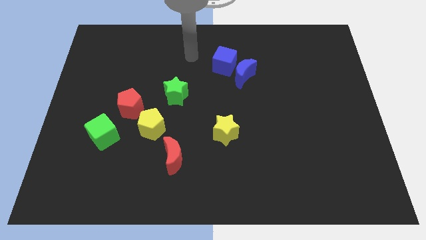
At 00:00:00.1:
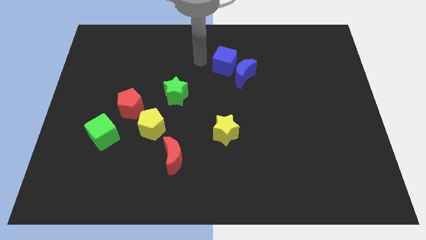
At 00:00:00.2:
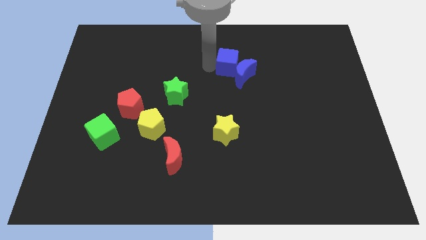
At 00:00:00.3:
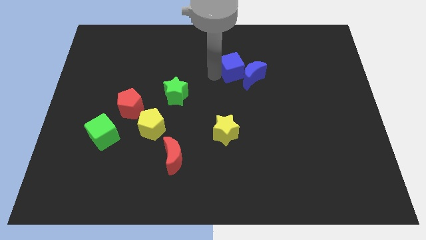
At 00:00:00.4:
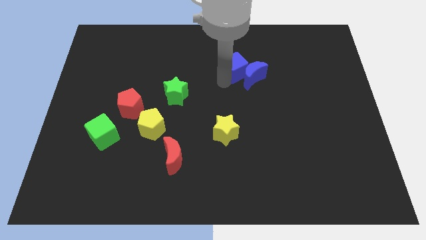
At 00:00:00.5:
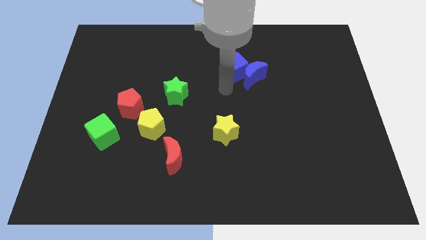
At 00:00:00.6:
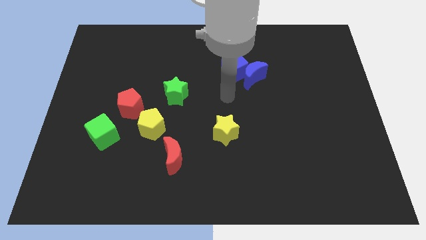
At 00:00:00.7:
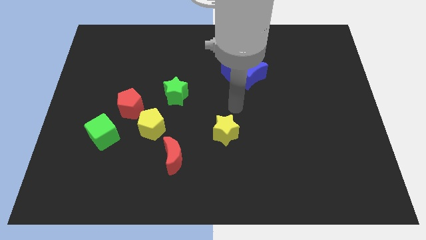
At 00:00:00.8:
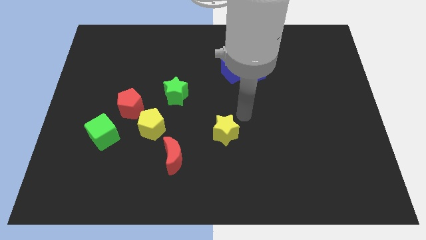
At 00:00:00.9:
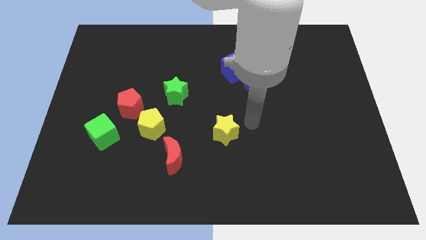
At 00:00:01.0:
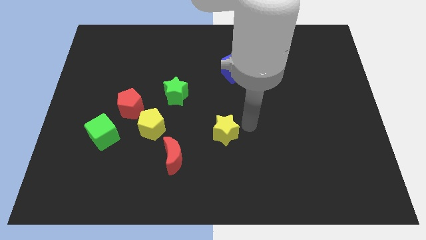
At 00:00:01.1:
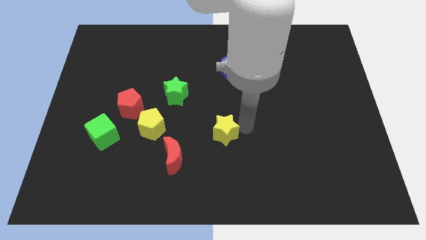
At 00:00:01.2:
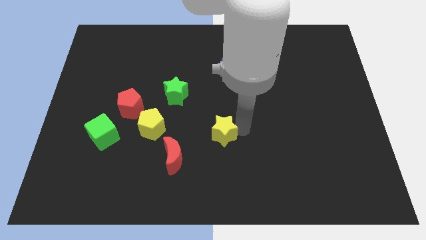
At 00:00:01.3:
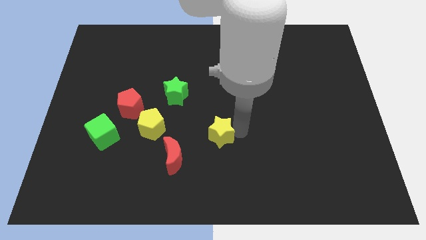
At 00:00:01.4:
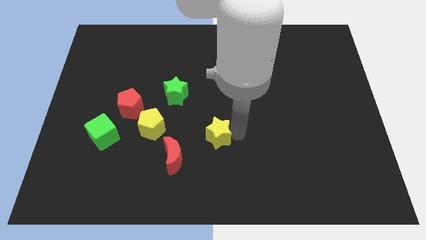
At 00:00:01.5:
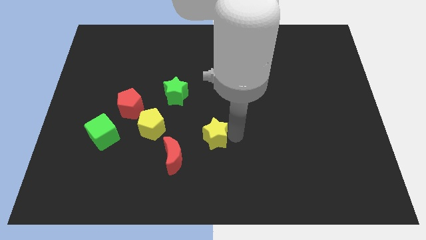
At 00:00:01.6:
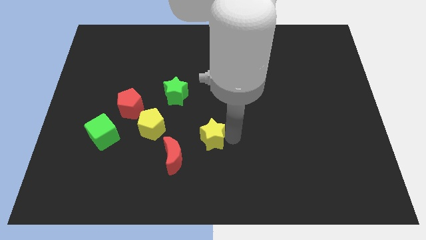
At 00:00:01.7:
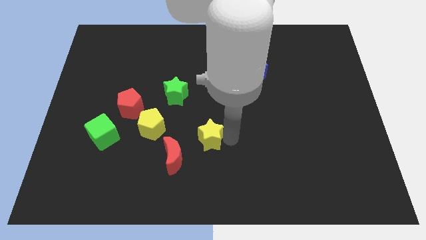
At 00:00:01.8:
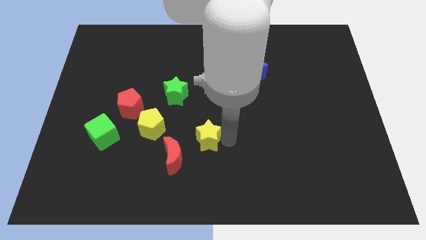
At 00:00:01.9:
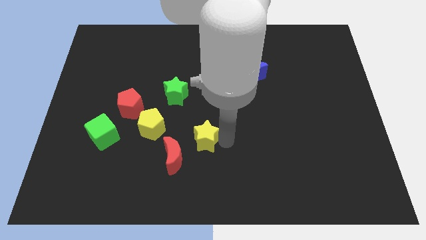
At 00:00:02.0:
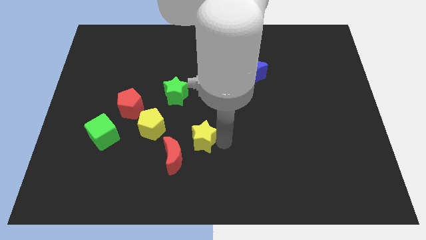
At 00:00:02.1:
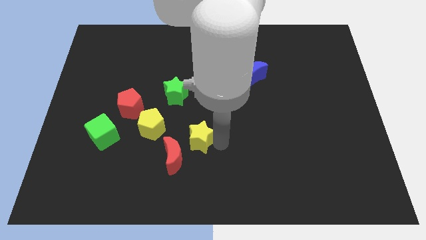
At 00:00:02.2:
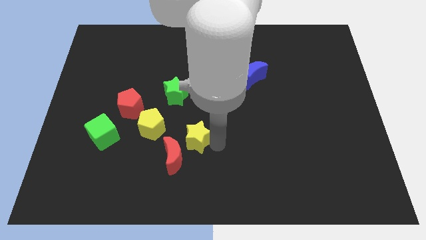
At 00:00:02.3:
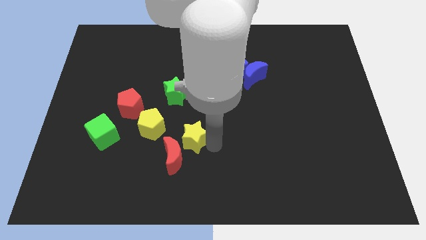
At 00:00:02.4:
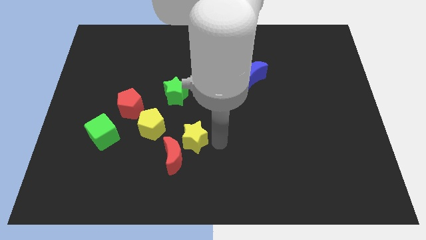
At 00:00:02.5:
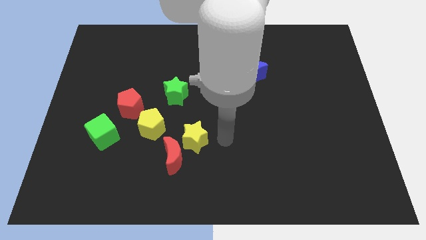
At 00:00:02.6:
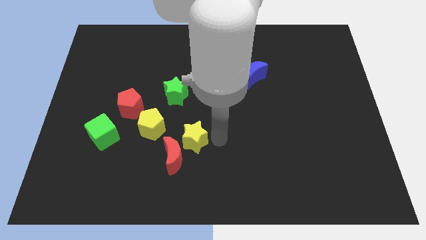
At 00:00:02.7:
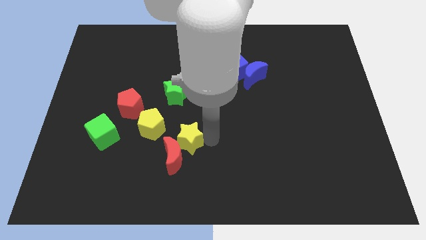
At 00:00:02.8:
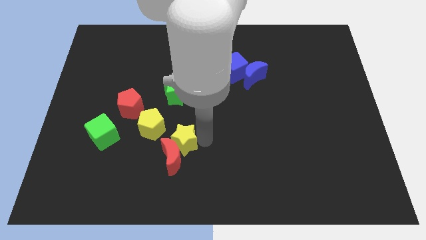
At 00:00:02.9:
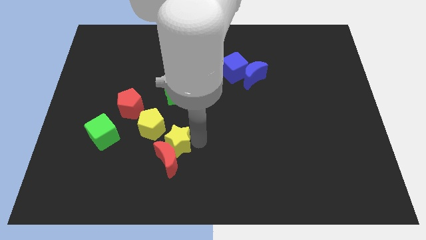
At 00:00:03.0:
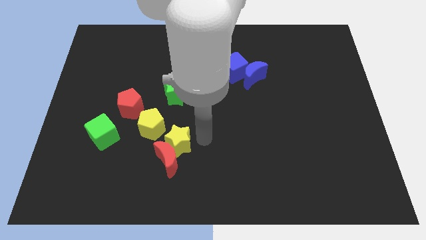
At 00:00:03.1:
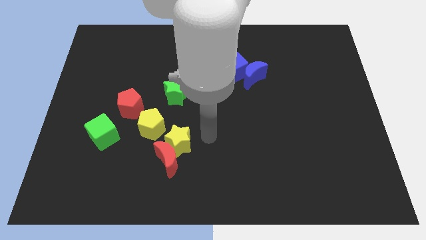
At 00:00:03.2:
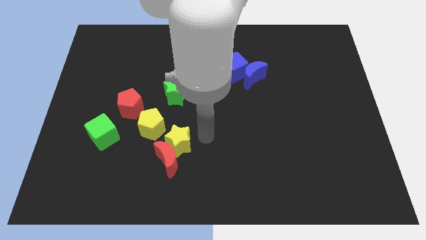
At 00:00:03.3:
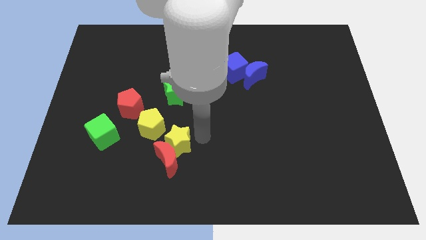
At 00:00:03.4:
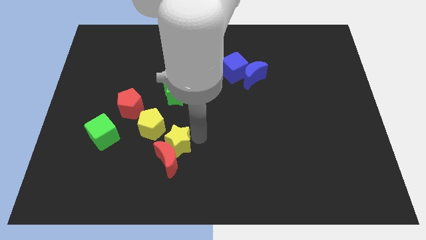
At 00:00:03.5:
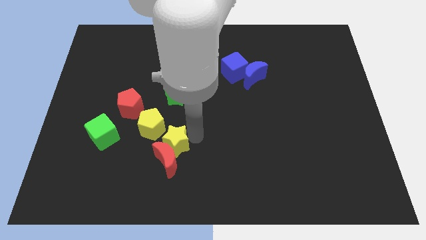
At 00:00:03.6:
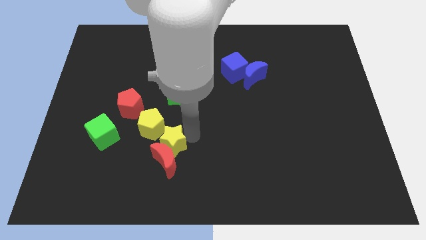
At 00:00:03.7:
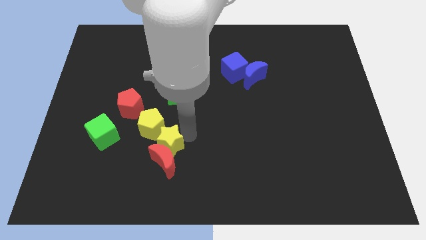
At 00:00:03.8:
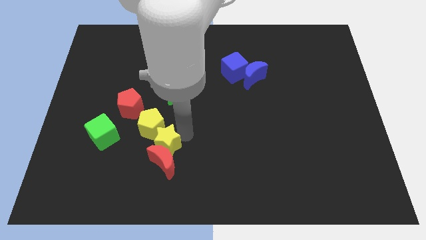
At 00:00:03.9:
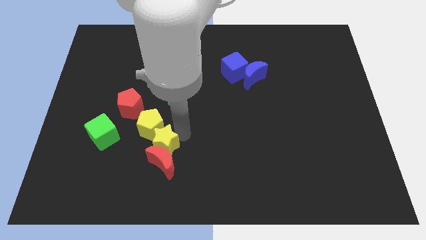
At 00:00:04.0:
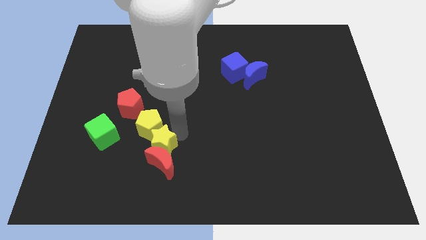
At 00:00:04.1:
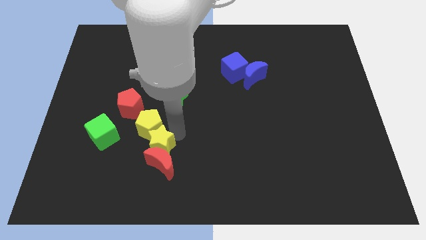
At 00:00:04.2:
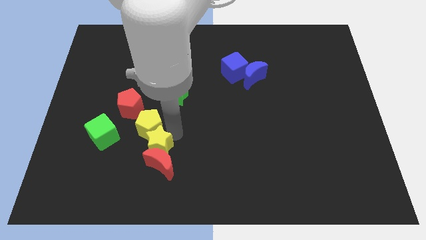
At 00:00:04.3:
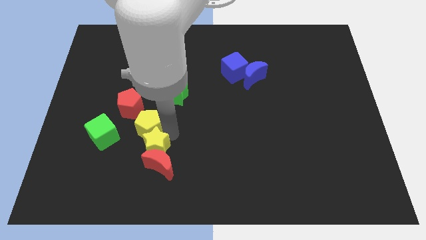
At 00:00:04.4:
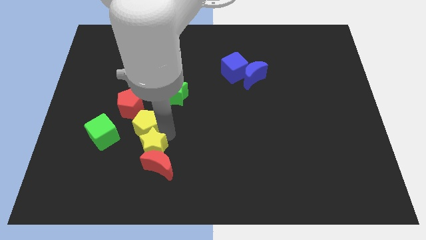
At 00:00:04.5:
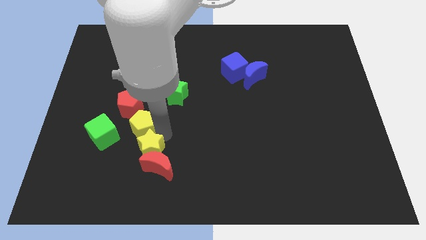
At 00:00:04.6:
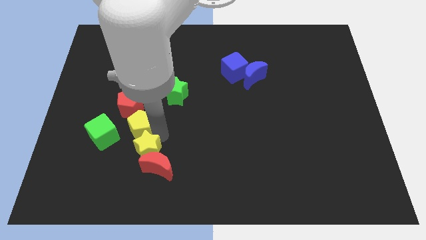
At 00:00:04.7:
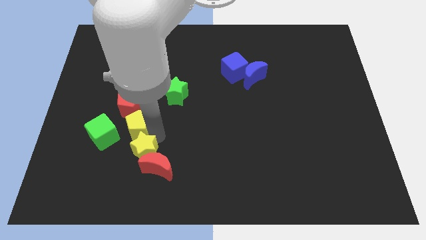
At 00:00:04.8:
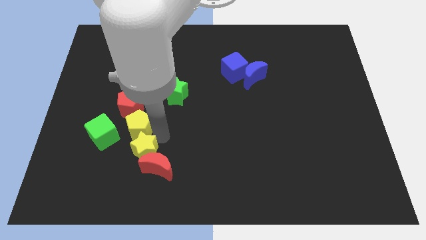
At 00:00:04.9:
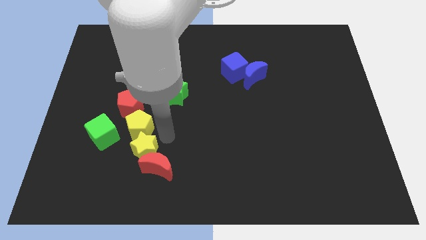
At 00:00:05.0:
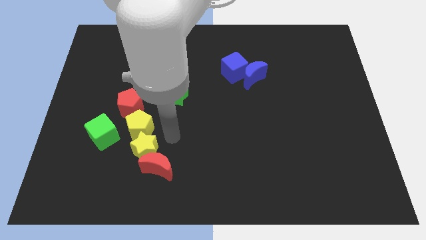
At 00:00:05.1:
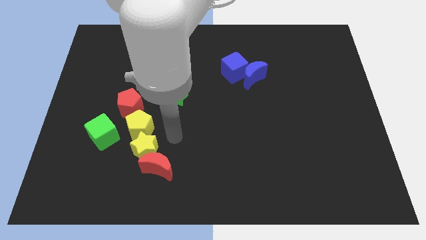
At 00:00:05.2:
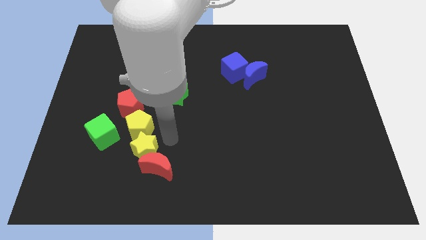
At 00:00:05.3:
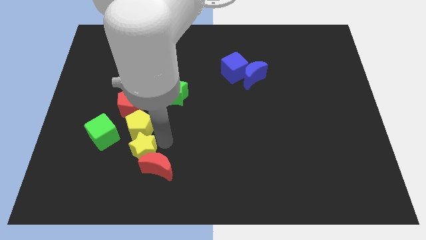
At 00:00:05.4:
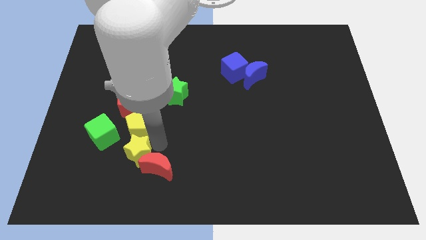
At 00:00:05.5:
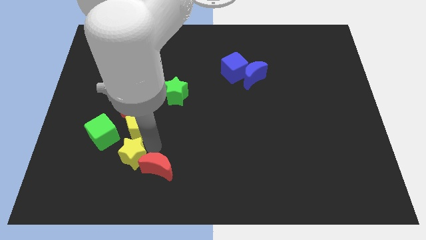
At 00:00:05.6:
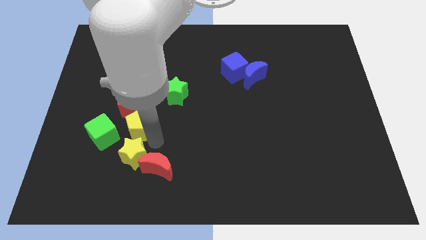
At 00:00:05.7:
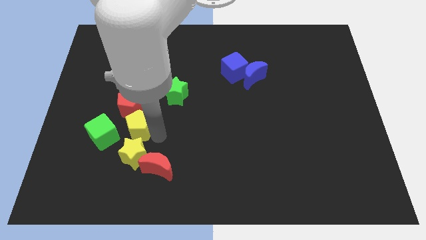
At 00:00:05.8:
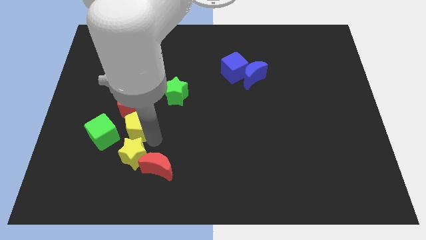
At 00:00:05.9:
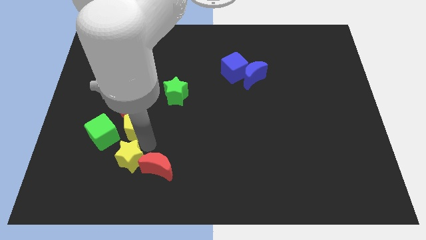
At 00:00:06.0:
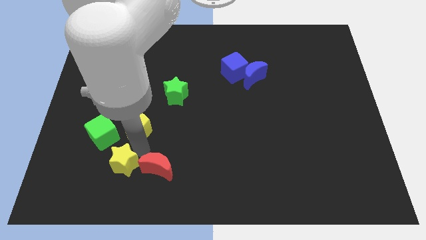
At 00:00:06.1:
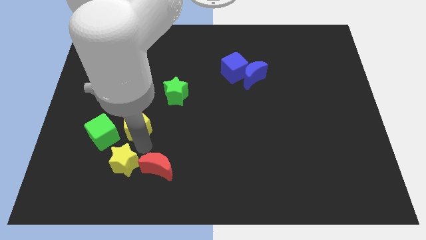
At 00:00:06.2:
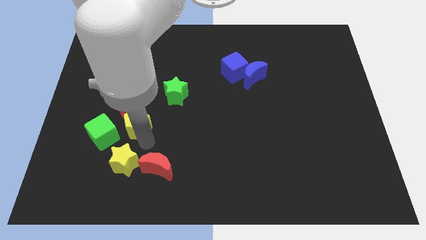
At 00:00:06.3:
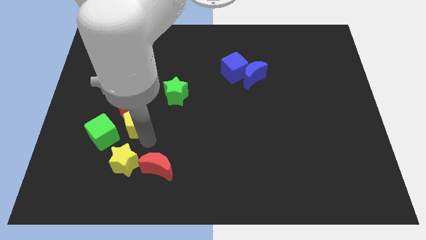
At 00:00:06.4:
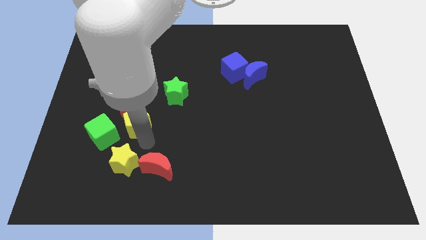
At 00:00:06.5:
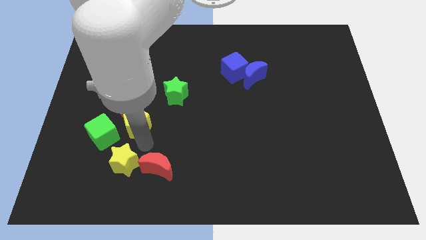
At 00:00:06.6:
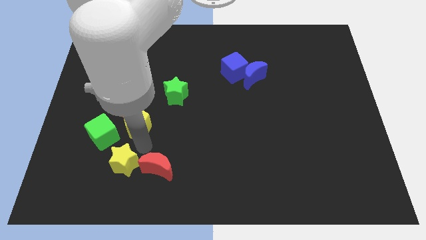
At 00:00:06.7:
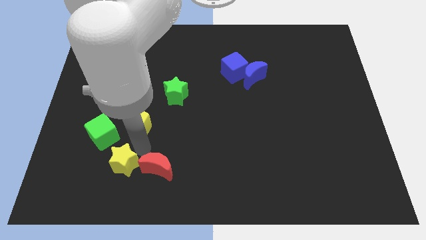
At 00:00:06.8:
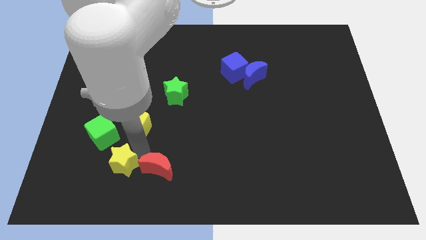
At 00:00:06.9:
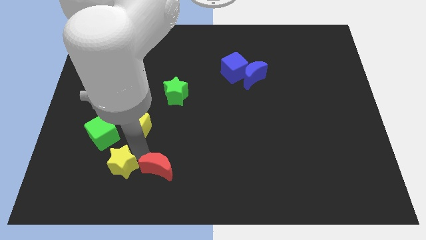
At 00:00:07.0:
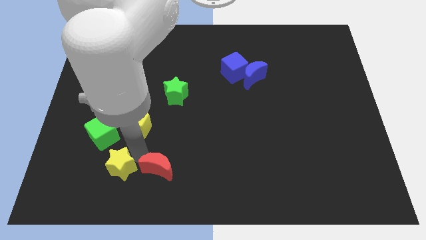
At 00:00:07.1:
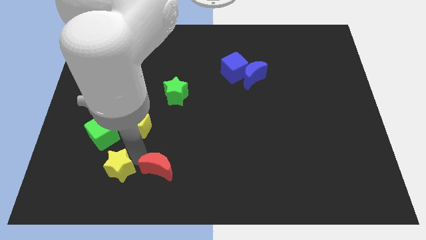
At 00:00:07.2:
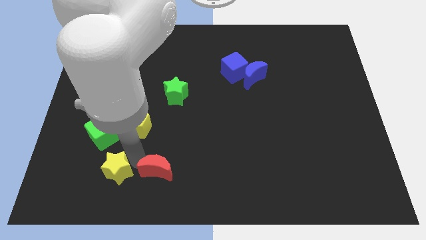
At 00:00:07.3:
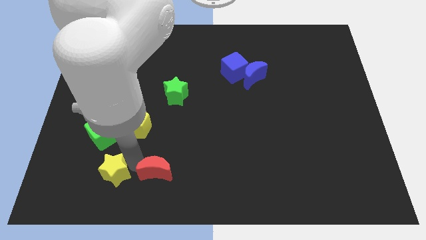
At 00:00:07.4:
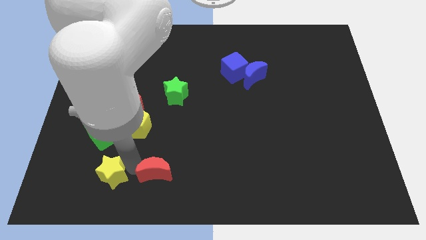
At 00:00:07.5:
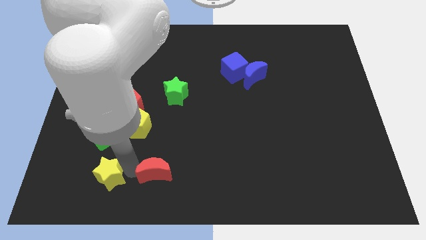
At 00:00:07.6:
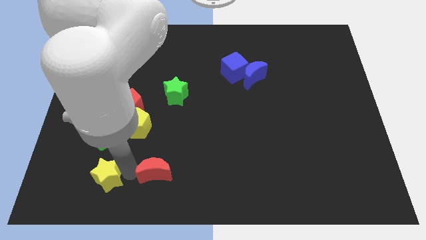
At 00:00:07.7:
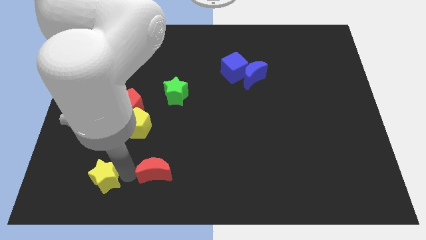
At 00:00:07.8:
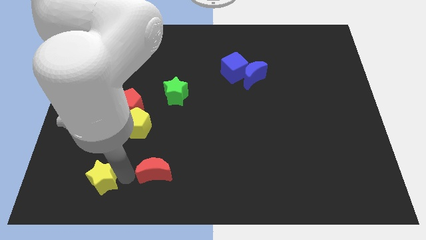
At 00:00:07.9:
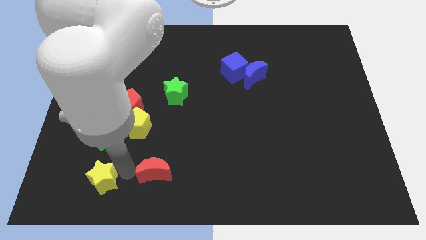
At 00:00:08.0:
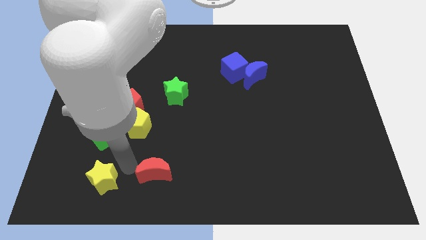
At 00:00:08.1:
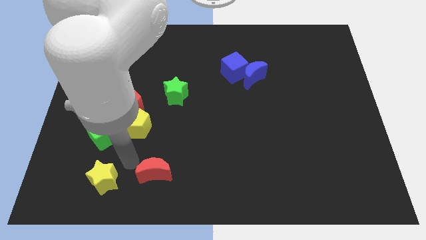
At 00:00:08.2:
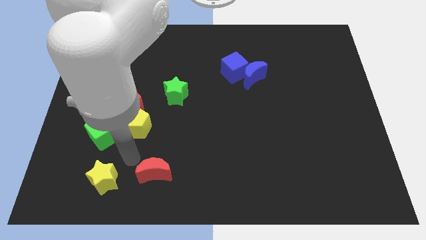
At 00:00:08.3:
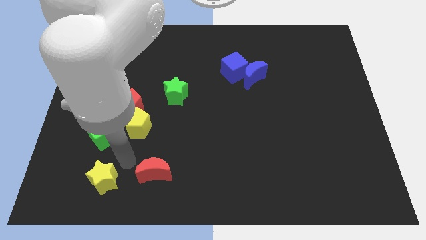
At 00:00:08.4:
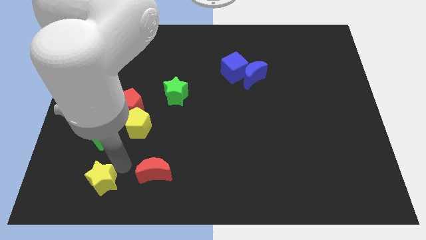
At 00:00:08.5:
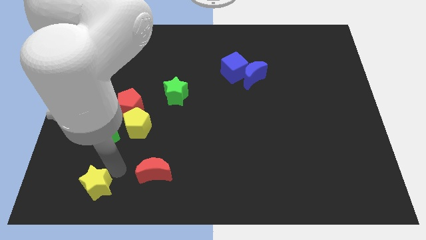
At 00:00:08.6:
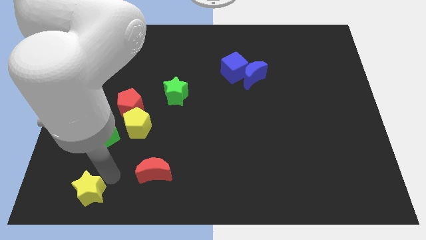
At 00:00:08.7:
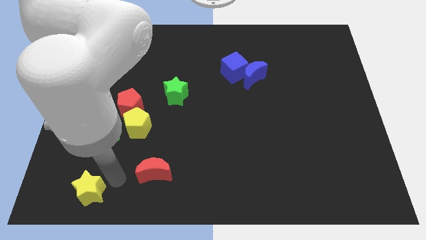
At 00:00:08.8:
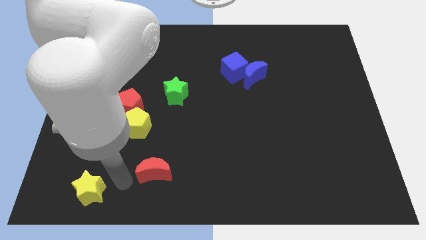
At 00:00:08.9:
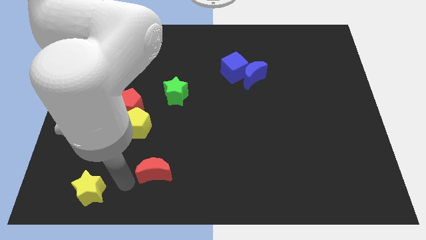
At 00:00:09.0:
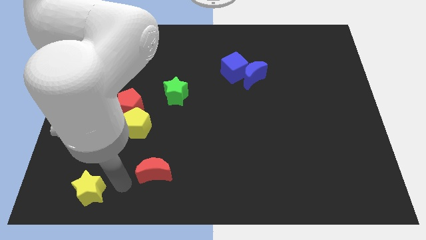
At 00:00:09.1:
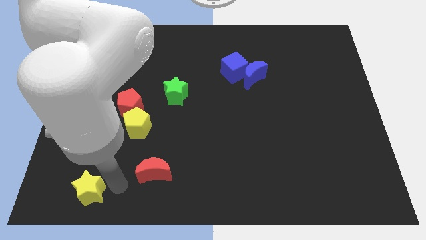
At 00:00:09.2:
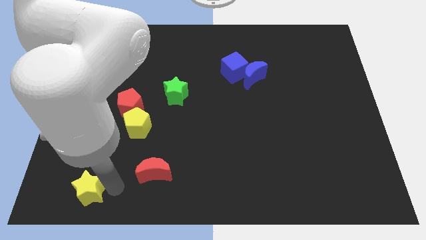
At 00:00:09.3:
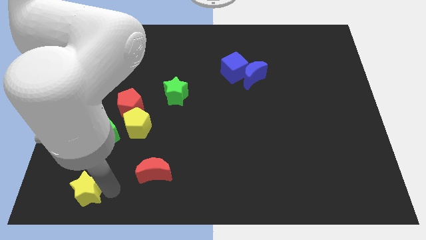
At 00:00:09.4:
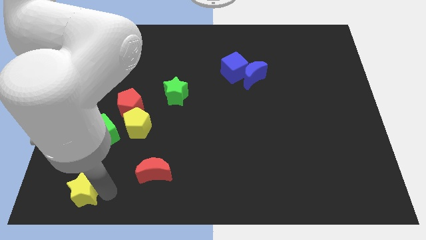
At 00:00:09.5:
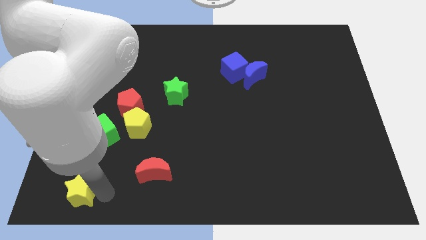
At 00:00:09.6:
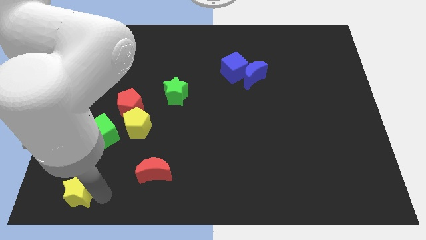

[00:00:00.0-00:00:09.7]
put the yellow star to the bottom left
